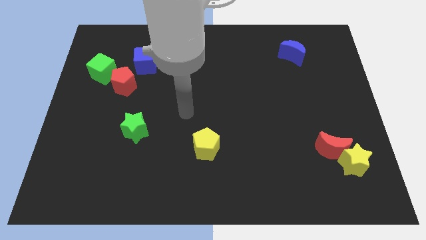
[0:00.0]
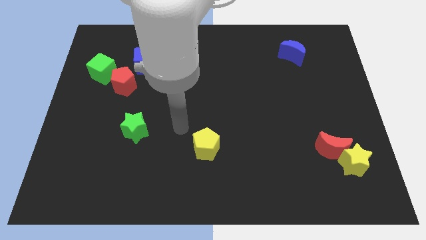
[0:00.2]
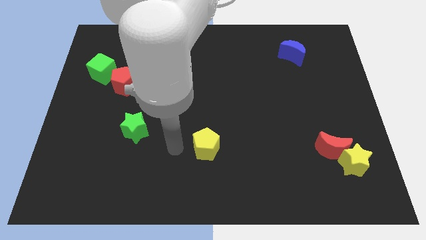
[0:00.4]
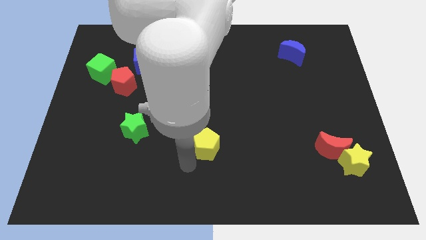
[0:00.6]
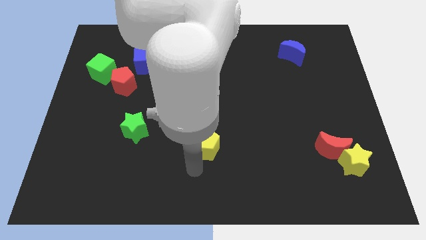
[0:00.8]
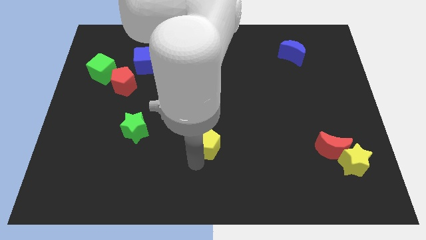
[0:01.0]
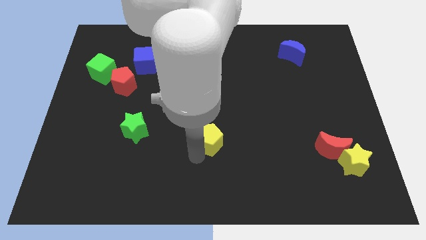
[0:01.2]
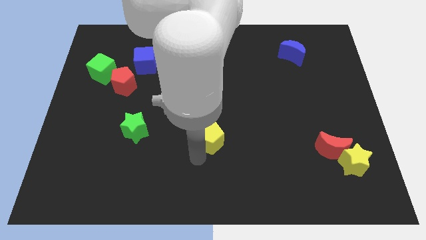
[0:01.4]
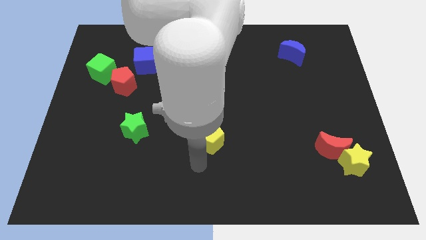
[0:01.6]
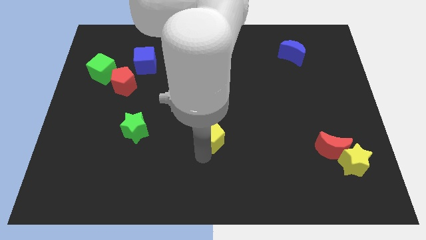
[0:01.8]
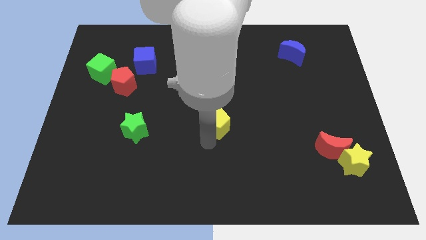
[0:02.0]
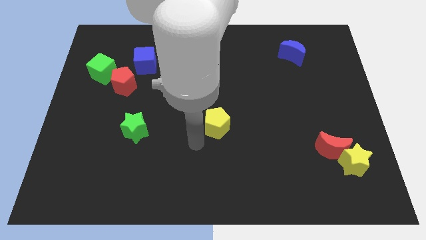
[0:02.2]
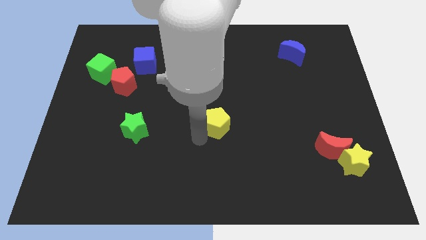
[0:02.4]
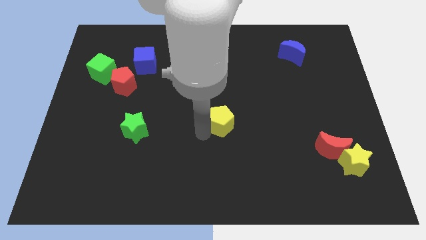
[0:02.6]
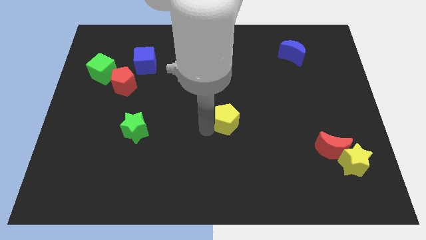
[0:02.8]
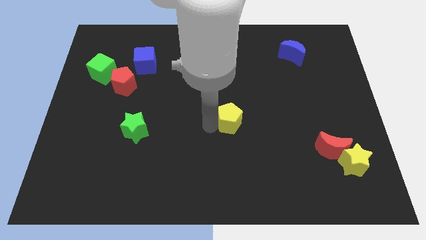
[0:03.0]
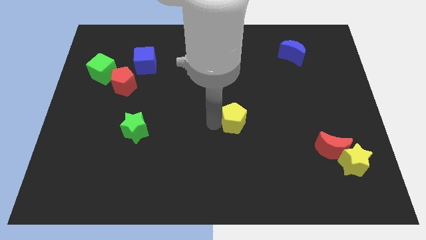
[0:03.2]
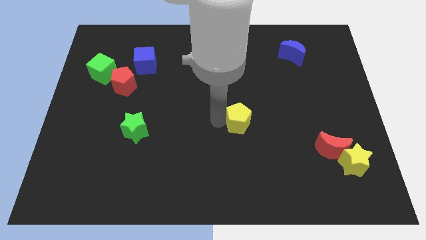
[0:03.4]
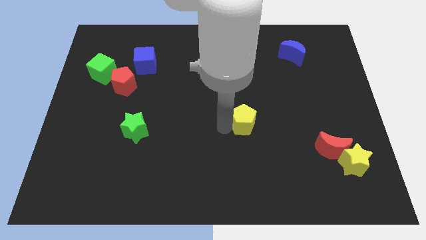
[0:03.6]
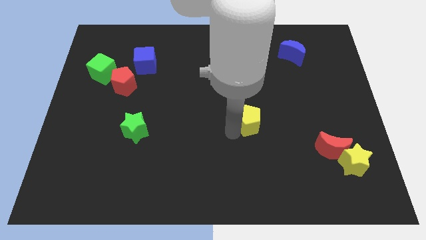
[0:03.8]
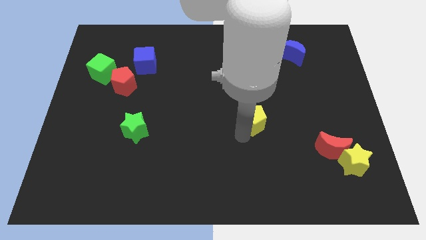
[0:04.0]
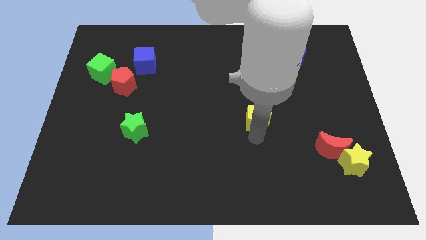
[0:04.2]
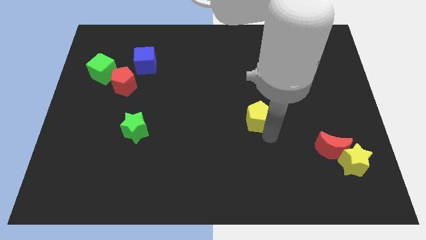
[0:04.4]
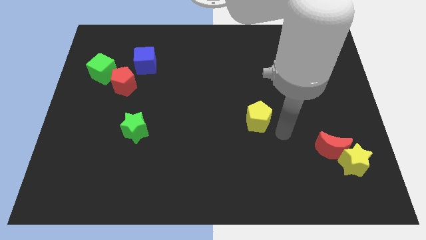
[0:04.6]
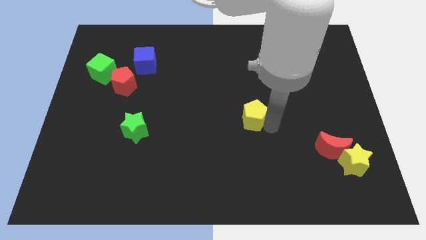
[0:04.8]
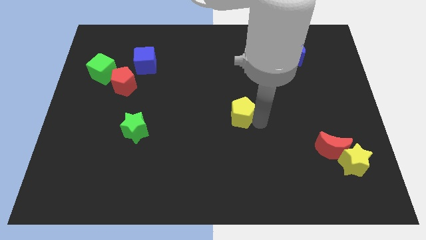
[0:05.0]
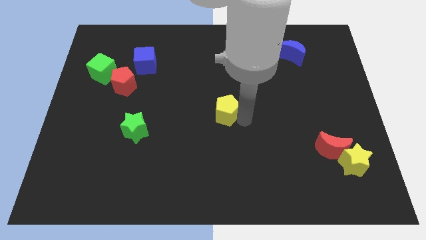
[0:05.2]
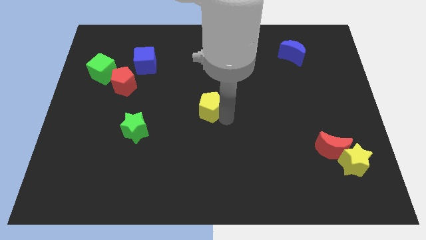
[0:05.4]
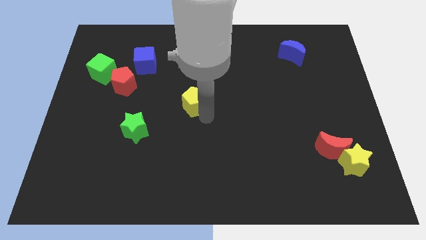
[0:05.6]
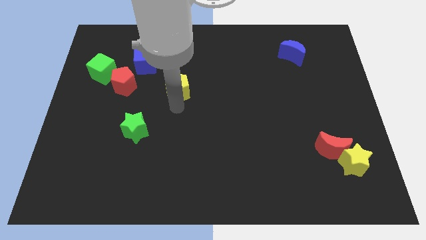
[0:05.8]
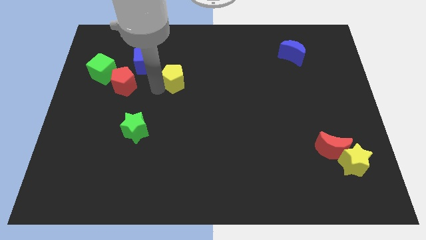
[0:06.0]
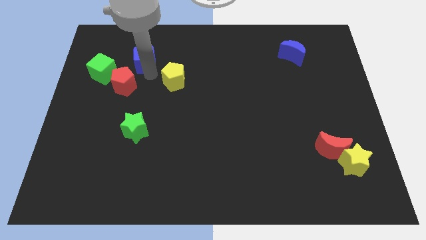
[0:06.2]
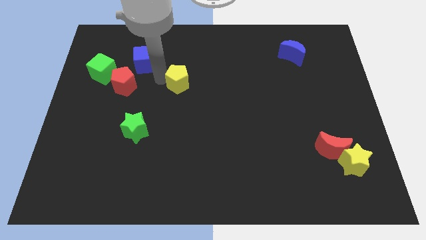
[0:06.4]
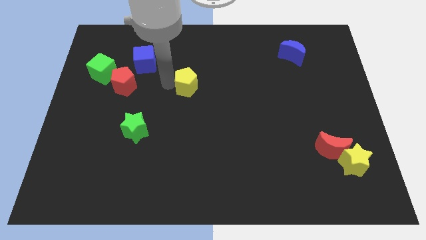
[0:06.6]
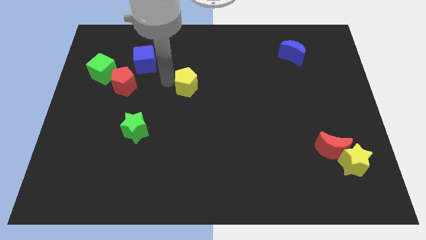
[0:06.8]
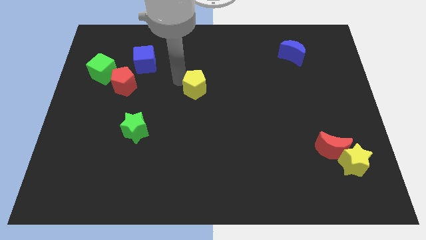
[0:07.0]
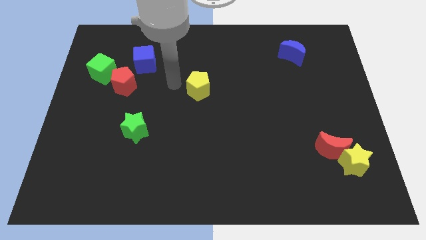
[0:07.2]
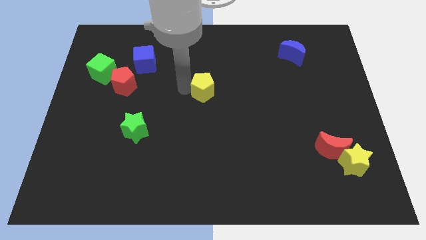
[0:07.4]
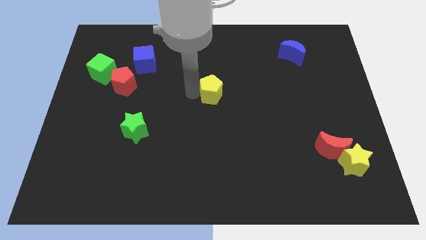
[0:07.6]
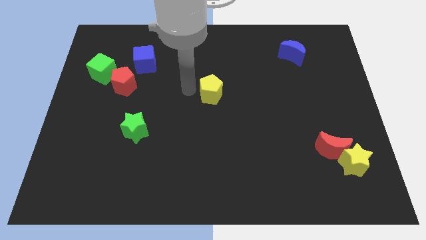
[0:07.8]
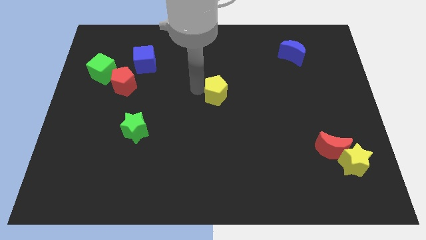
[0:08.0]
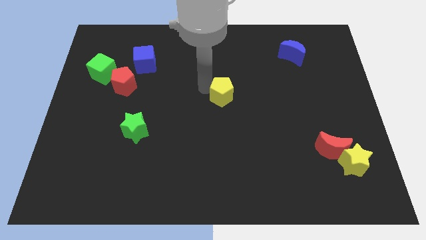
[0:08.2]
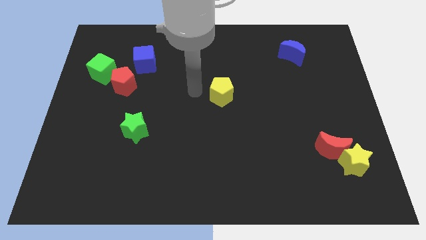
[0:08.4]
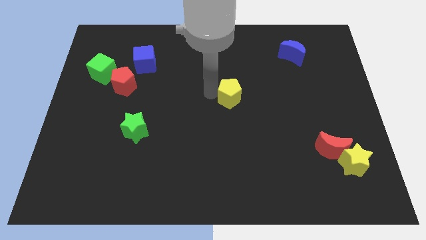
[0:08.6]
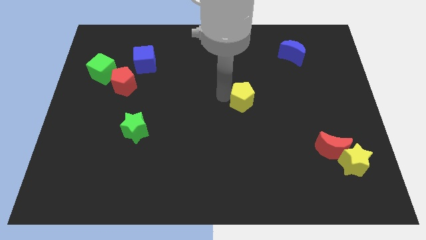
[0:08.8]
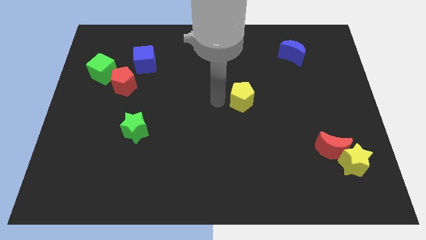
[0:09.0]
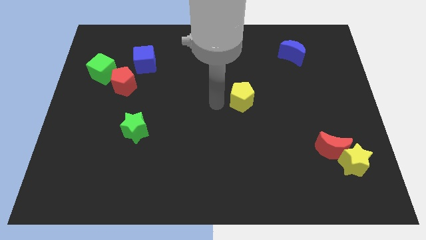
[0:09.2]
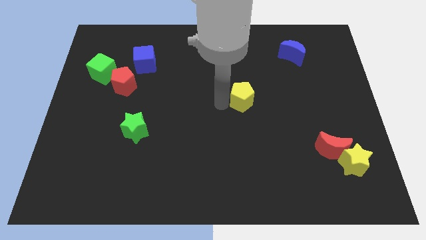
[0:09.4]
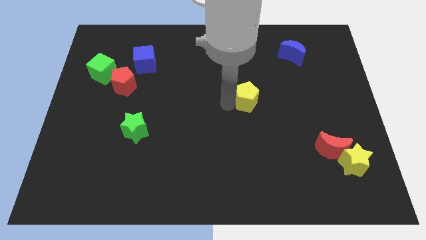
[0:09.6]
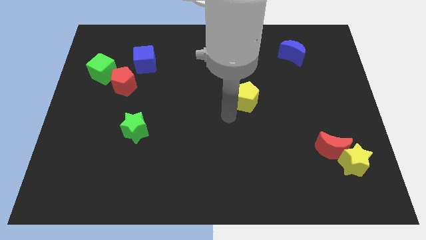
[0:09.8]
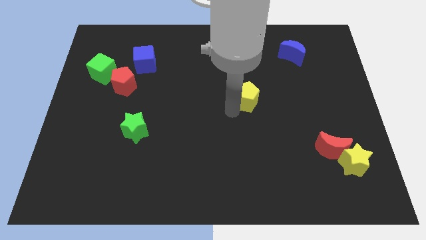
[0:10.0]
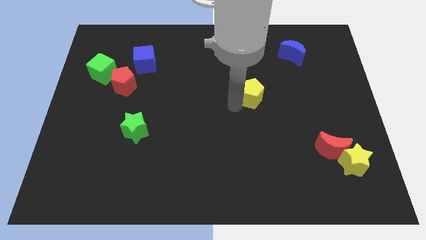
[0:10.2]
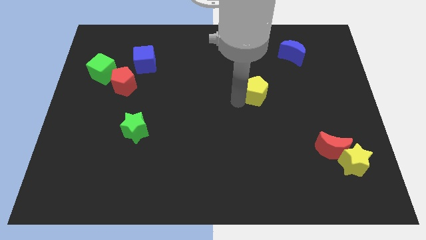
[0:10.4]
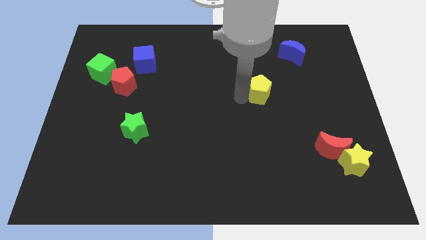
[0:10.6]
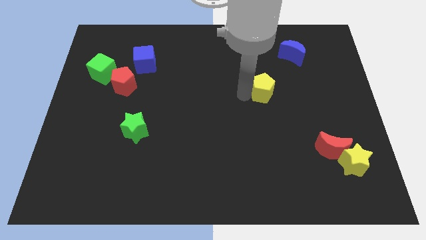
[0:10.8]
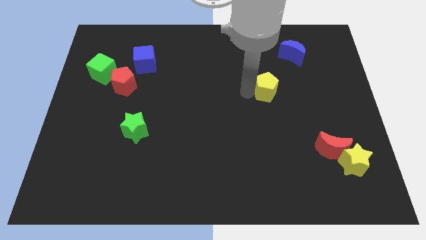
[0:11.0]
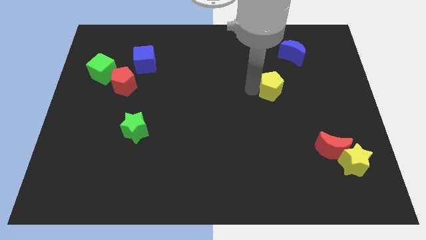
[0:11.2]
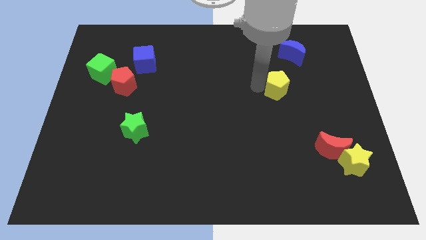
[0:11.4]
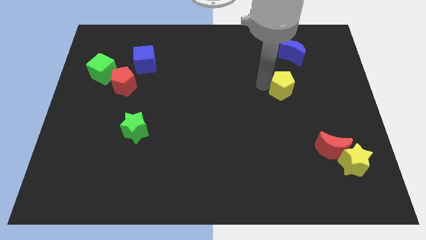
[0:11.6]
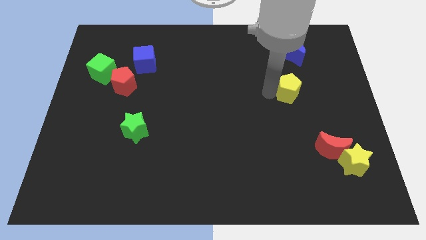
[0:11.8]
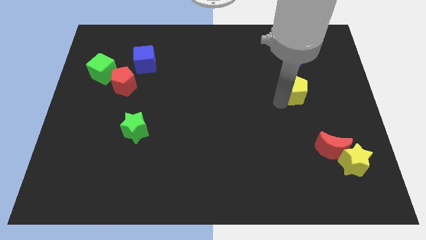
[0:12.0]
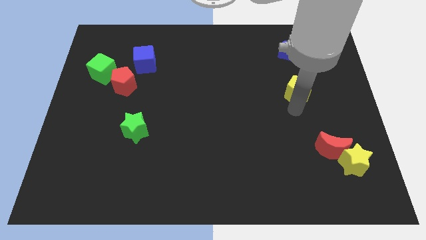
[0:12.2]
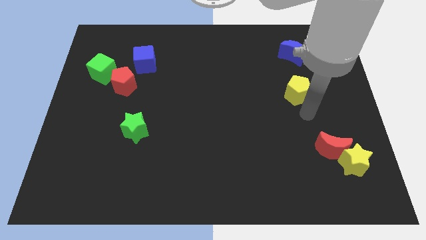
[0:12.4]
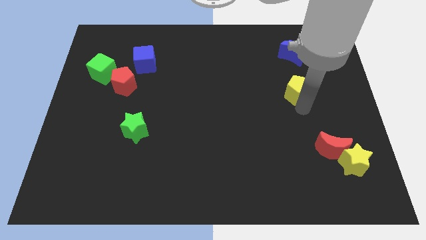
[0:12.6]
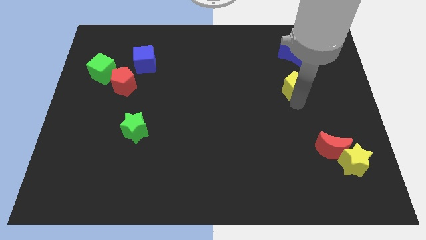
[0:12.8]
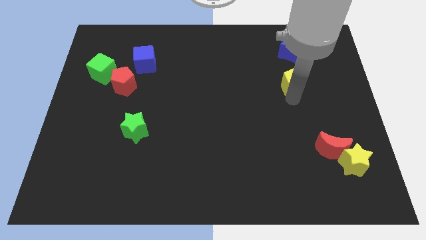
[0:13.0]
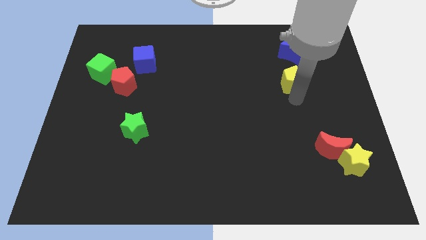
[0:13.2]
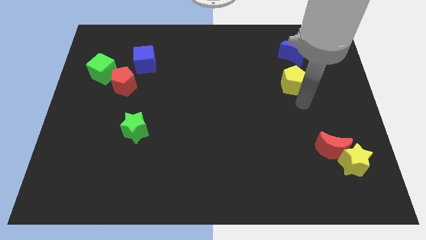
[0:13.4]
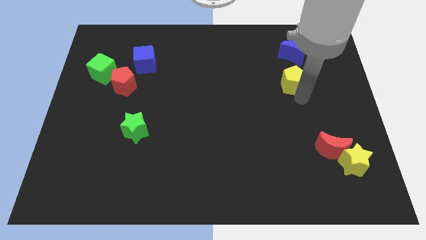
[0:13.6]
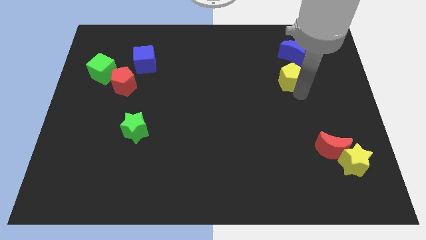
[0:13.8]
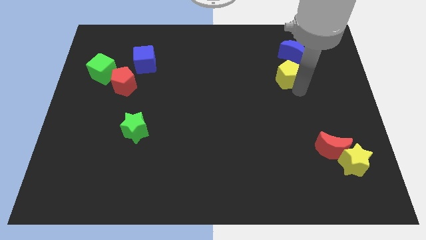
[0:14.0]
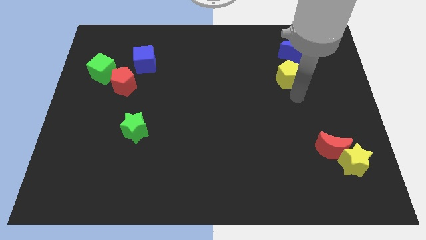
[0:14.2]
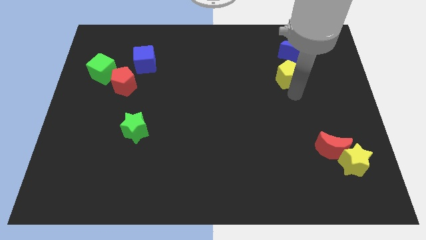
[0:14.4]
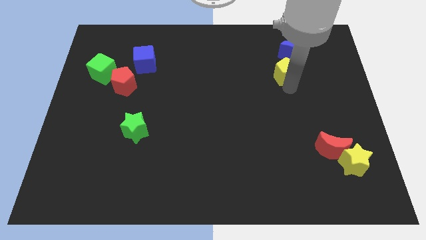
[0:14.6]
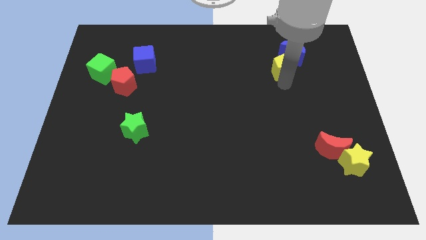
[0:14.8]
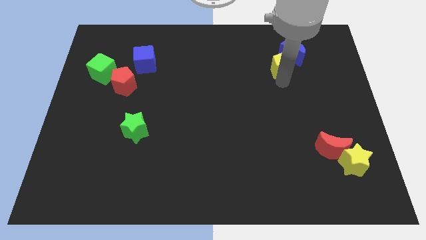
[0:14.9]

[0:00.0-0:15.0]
move the yellow pentagon next to the blue moon
